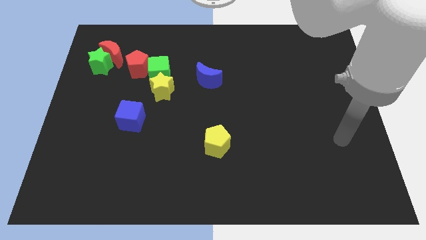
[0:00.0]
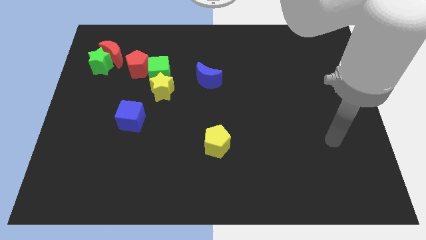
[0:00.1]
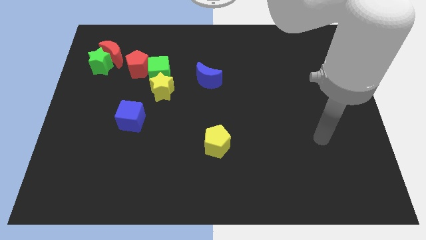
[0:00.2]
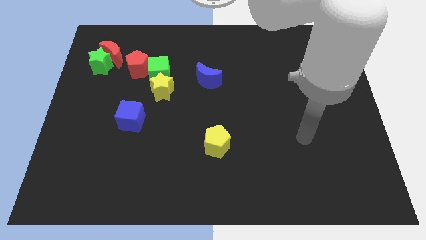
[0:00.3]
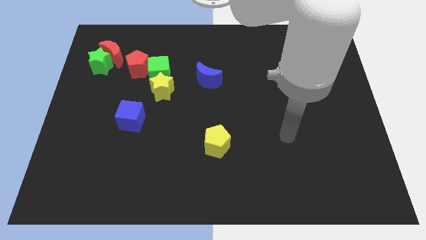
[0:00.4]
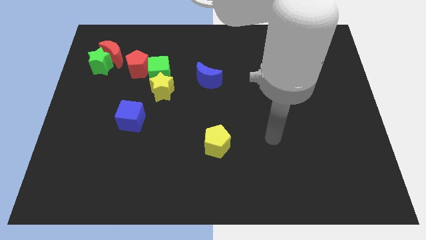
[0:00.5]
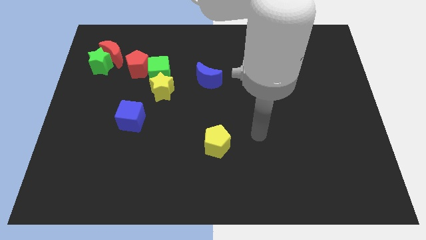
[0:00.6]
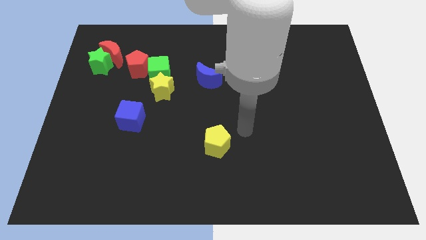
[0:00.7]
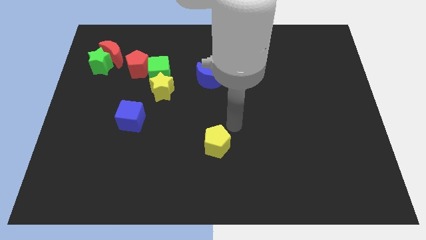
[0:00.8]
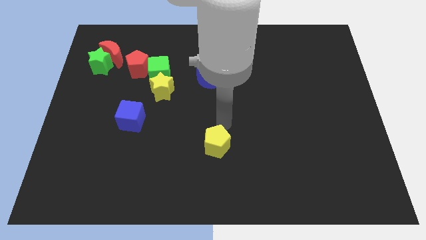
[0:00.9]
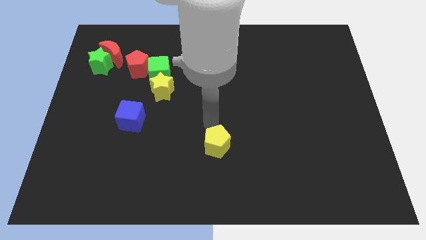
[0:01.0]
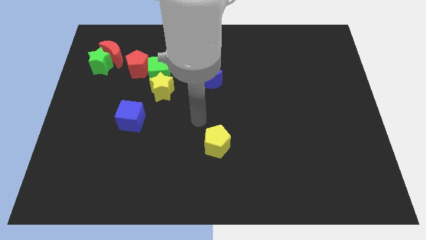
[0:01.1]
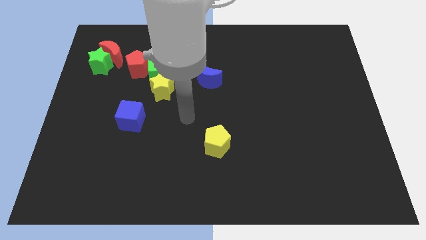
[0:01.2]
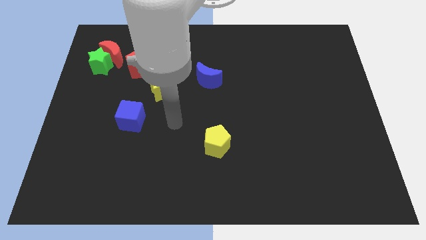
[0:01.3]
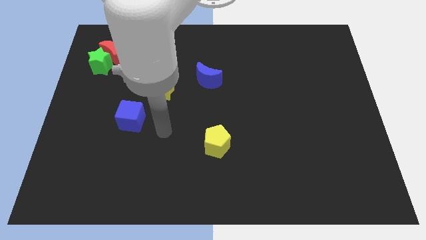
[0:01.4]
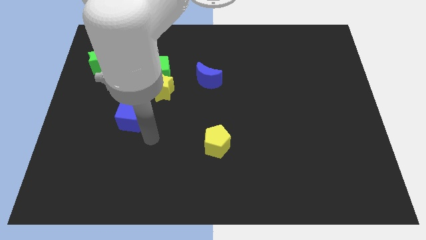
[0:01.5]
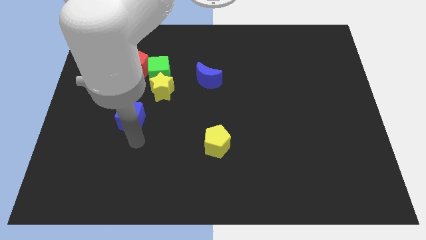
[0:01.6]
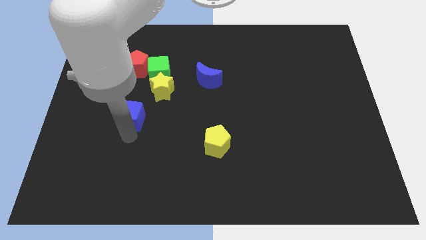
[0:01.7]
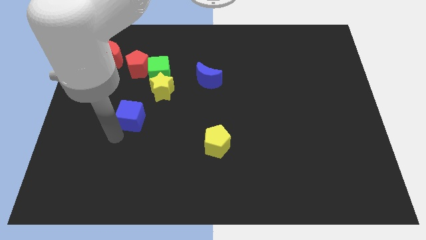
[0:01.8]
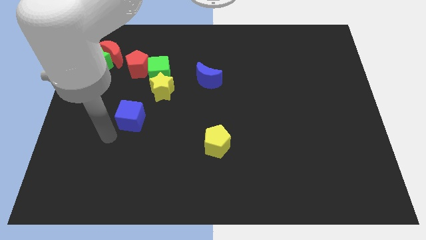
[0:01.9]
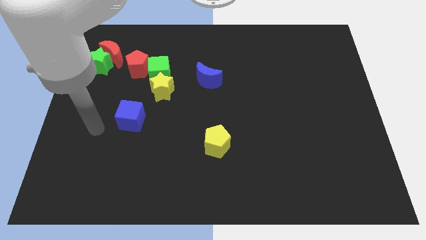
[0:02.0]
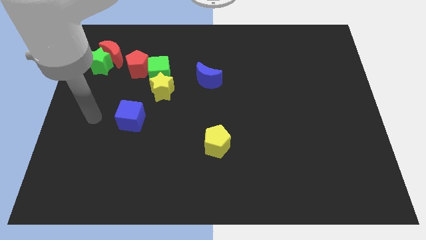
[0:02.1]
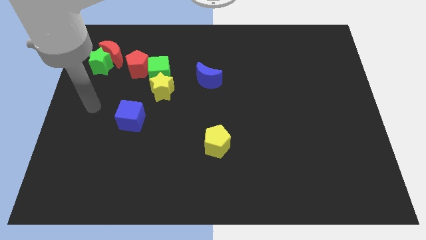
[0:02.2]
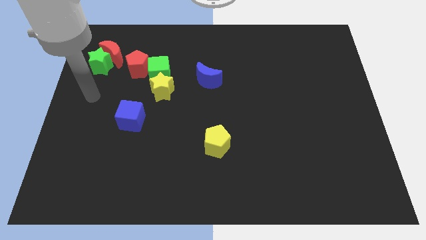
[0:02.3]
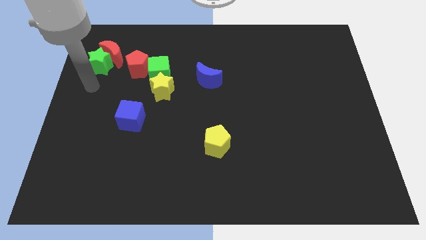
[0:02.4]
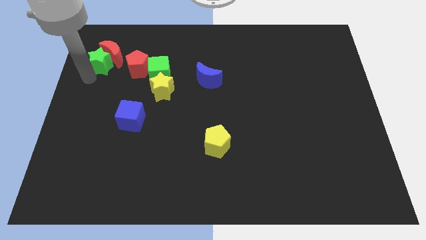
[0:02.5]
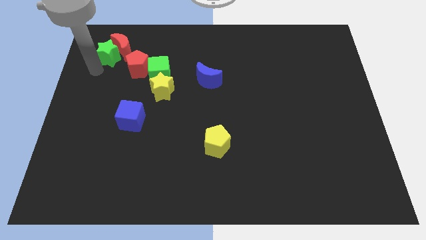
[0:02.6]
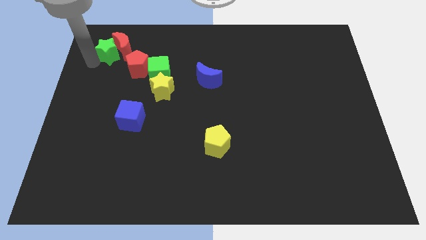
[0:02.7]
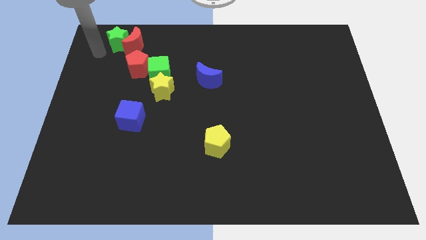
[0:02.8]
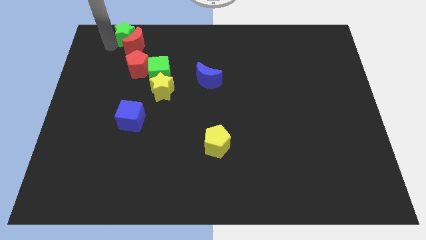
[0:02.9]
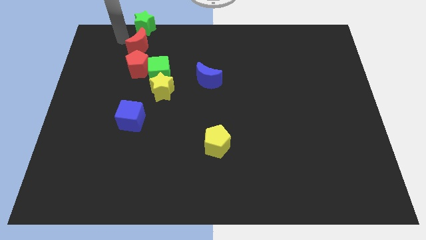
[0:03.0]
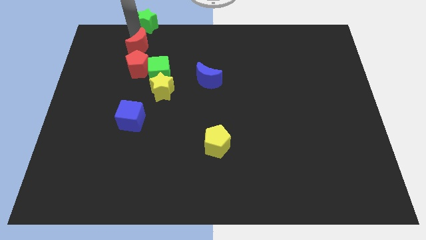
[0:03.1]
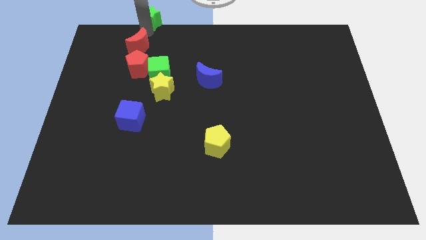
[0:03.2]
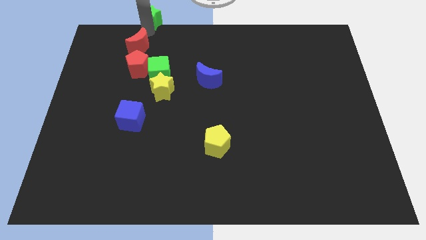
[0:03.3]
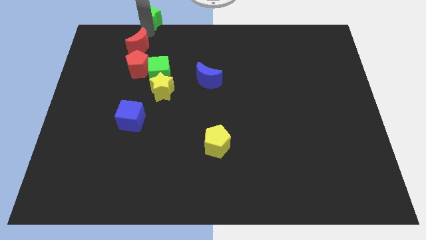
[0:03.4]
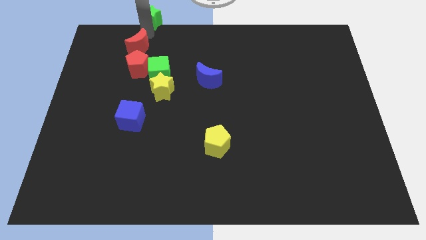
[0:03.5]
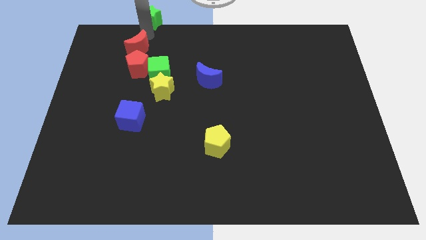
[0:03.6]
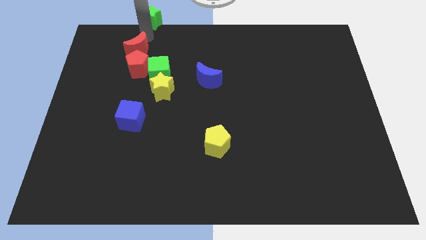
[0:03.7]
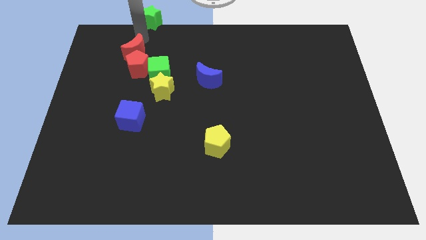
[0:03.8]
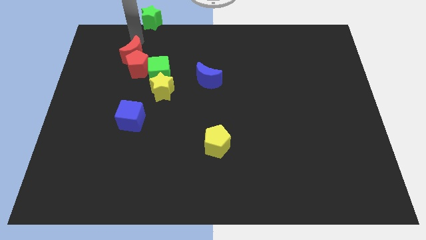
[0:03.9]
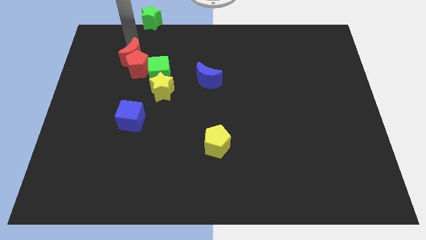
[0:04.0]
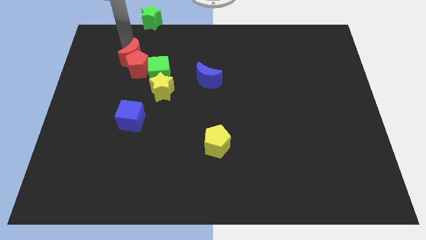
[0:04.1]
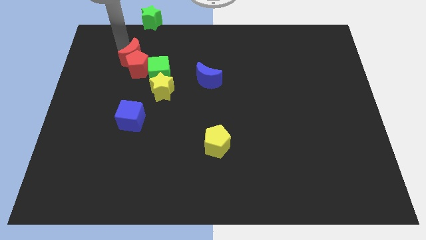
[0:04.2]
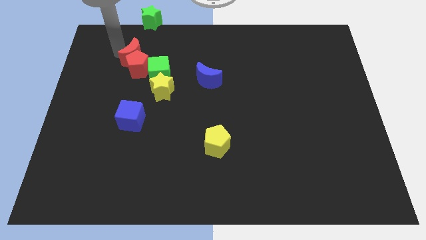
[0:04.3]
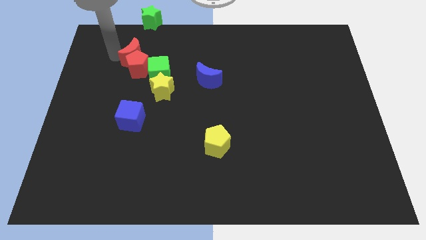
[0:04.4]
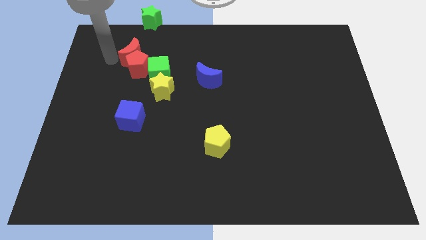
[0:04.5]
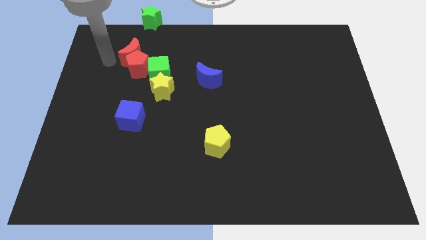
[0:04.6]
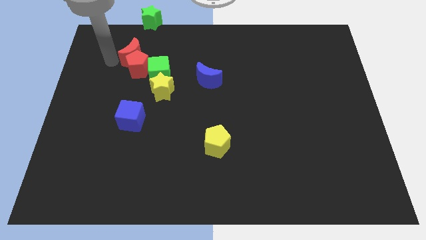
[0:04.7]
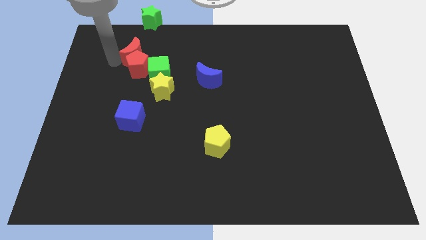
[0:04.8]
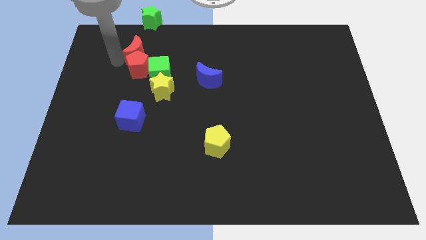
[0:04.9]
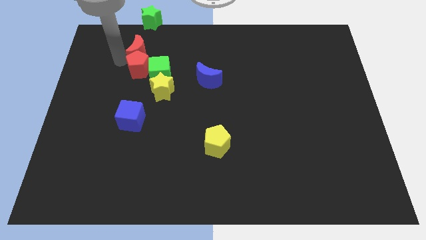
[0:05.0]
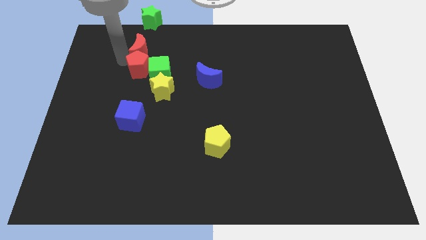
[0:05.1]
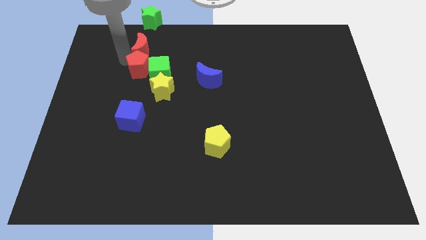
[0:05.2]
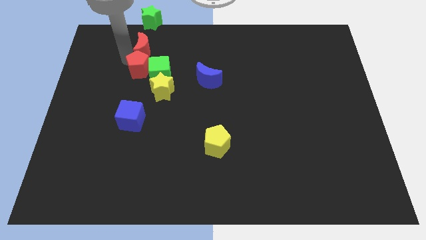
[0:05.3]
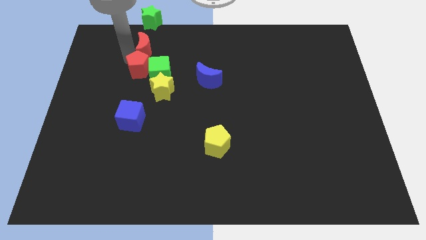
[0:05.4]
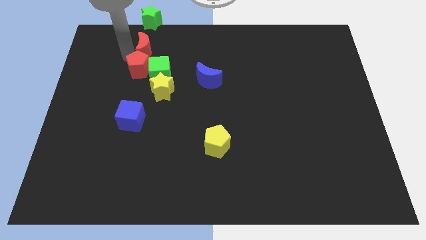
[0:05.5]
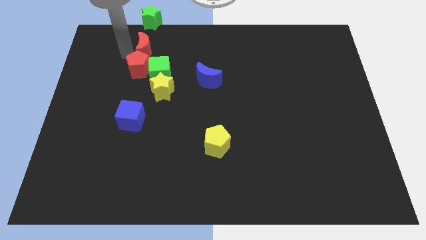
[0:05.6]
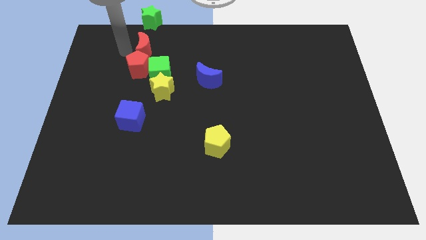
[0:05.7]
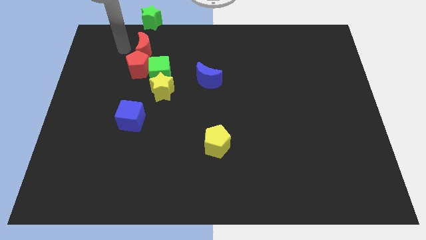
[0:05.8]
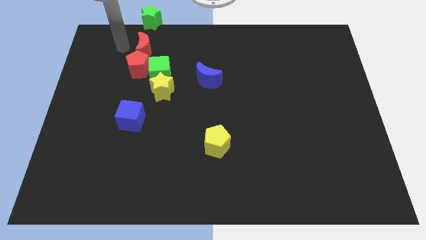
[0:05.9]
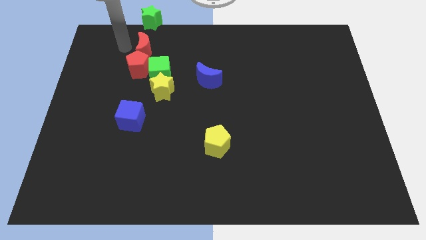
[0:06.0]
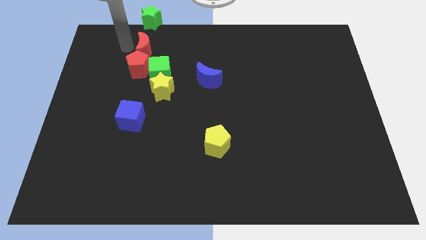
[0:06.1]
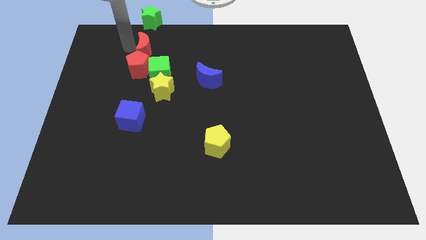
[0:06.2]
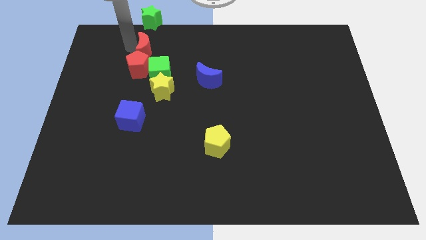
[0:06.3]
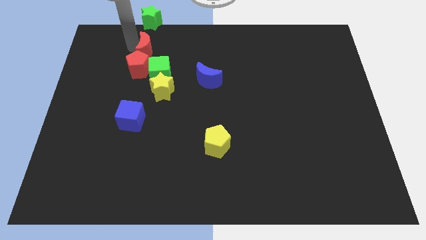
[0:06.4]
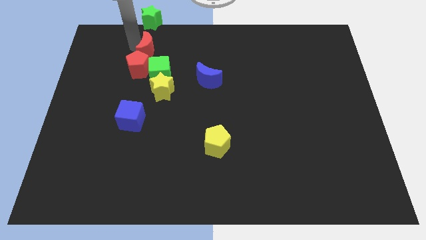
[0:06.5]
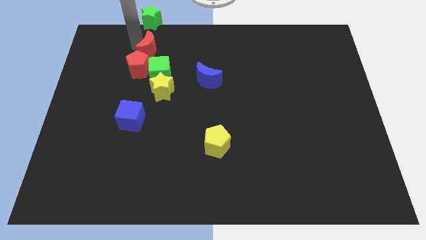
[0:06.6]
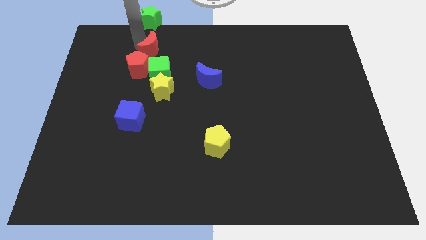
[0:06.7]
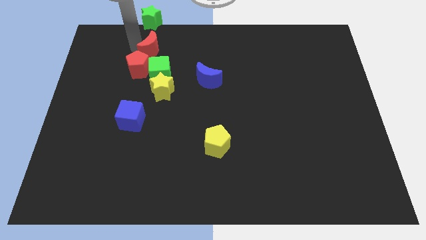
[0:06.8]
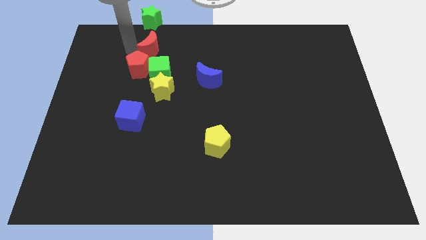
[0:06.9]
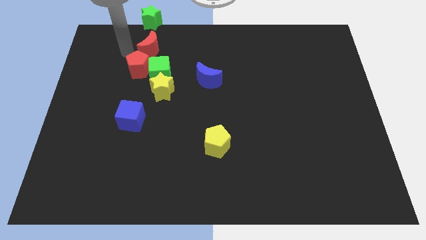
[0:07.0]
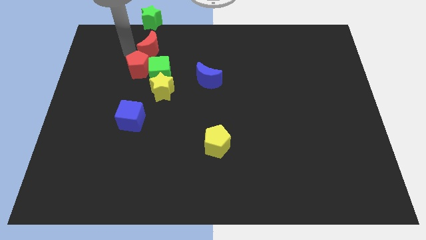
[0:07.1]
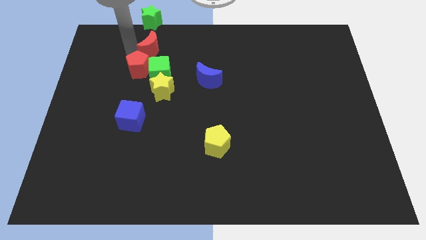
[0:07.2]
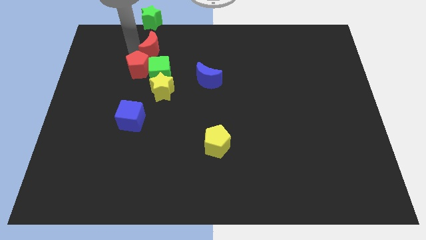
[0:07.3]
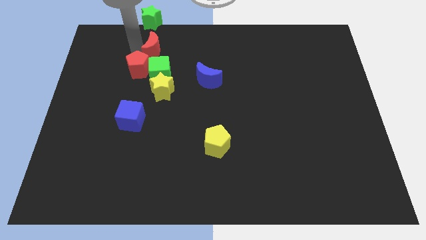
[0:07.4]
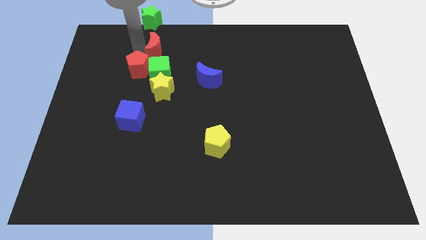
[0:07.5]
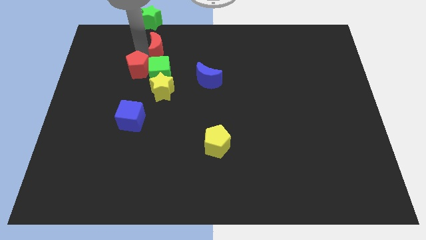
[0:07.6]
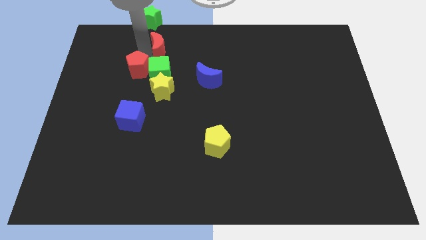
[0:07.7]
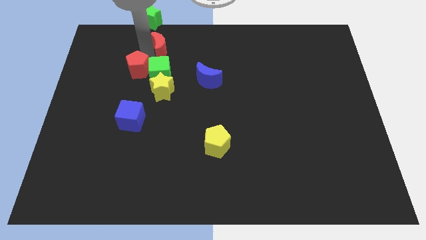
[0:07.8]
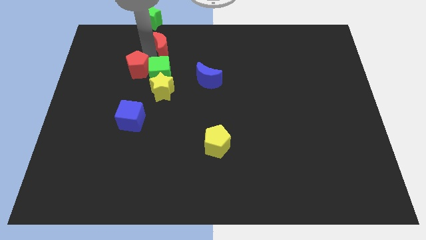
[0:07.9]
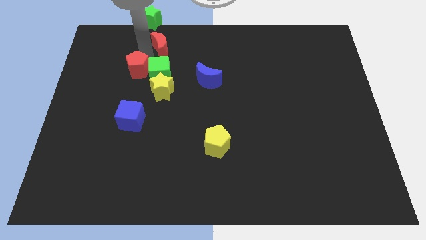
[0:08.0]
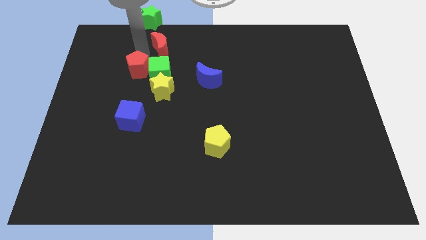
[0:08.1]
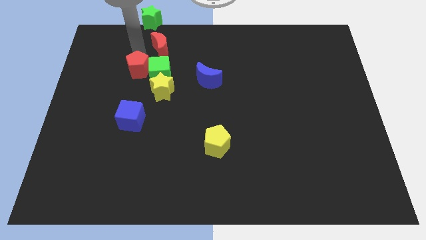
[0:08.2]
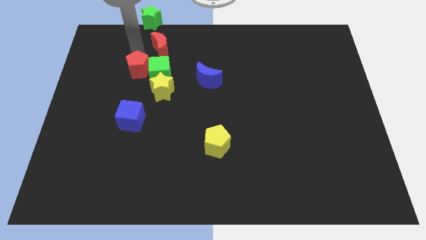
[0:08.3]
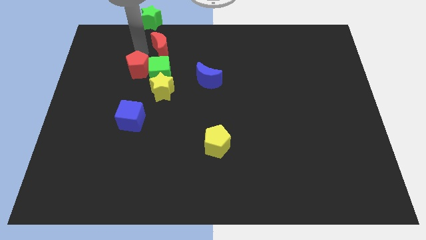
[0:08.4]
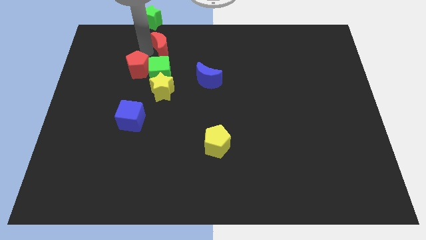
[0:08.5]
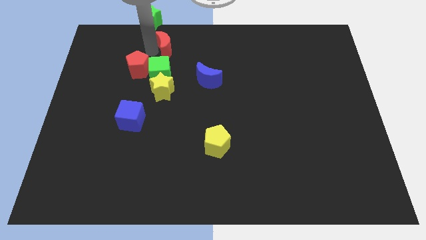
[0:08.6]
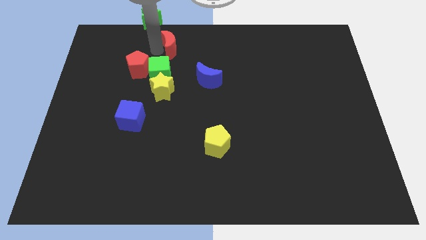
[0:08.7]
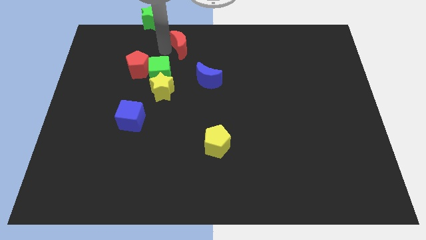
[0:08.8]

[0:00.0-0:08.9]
move the red moon to the top
